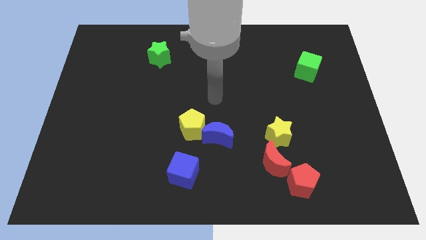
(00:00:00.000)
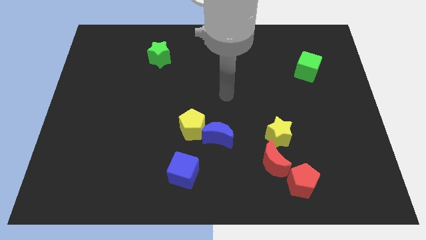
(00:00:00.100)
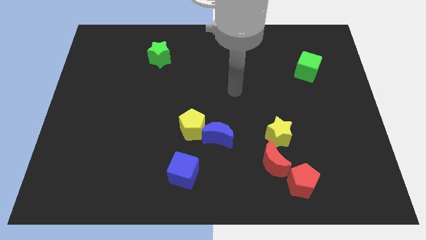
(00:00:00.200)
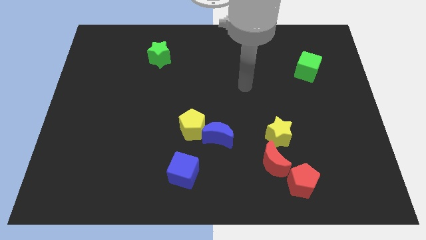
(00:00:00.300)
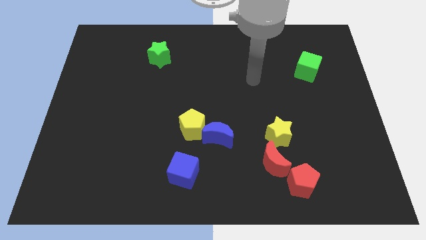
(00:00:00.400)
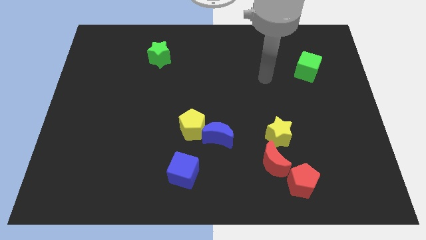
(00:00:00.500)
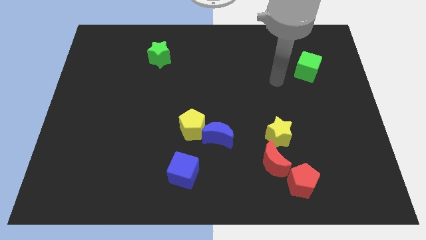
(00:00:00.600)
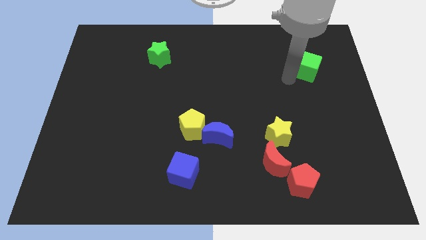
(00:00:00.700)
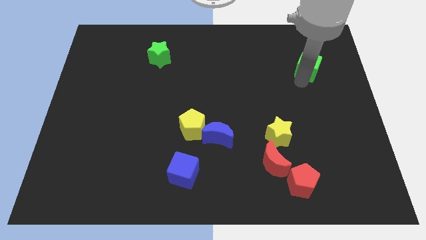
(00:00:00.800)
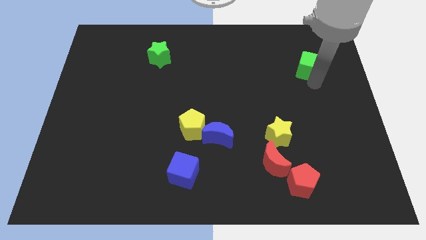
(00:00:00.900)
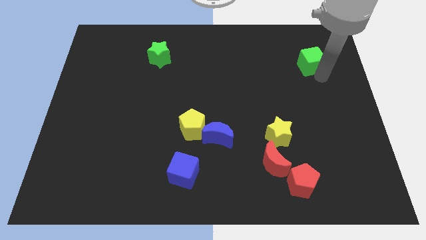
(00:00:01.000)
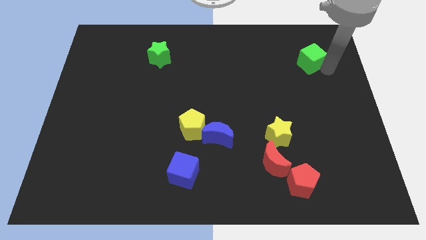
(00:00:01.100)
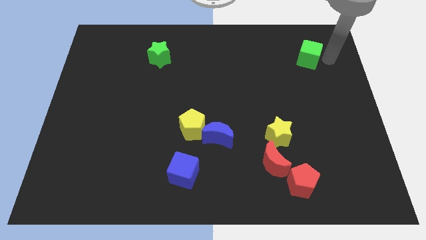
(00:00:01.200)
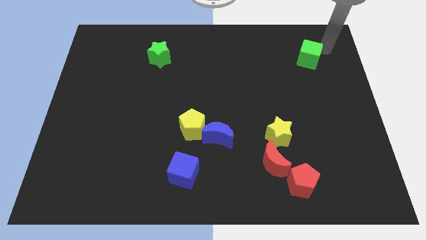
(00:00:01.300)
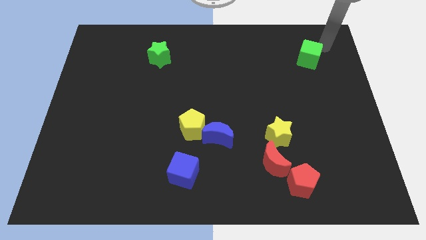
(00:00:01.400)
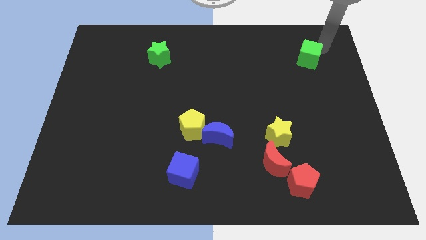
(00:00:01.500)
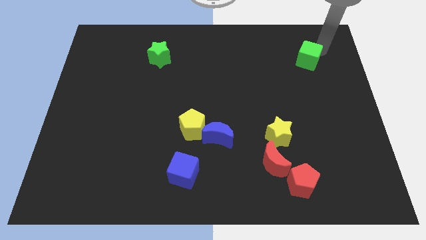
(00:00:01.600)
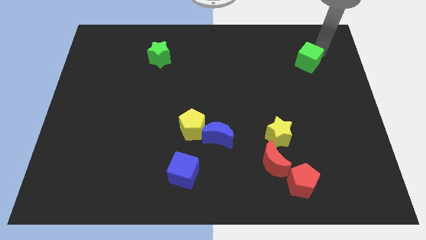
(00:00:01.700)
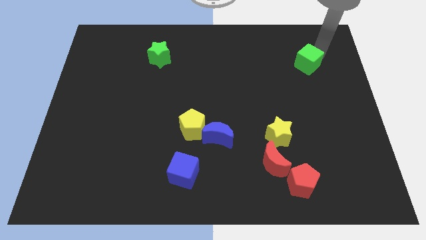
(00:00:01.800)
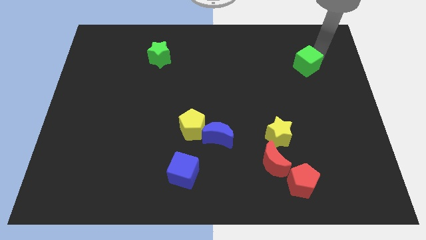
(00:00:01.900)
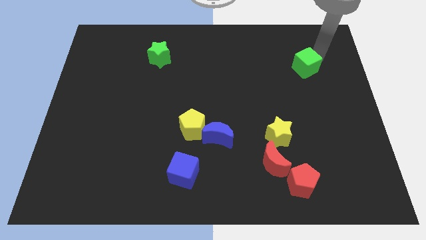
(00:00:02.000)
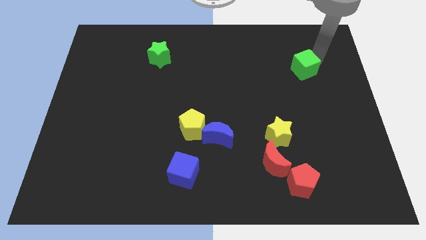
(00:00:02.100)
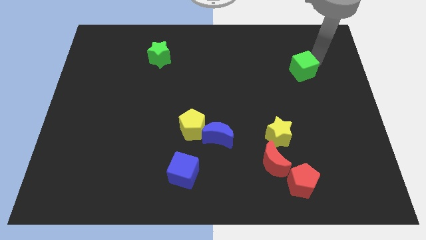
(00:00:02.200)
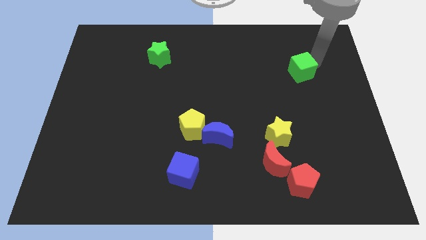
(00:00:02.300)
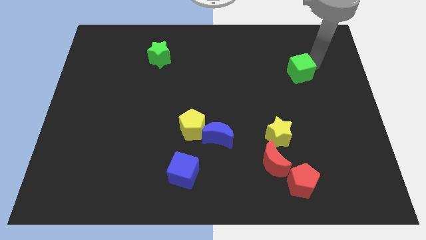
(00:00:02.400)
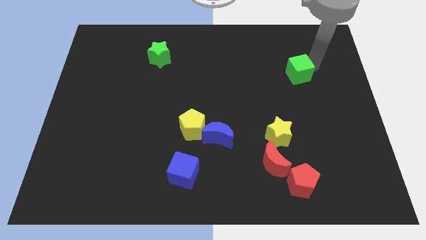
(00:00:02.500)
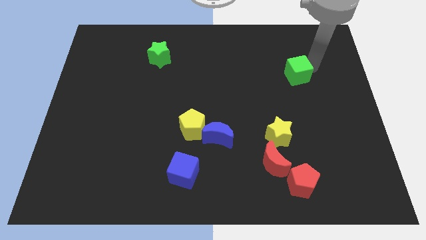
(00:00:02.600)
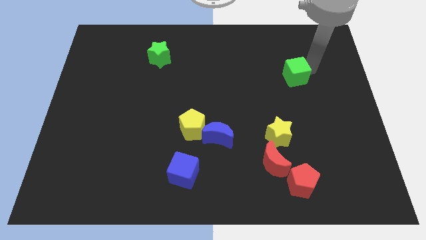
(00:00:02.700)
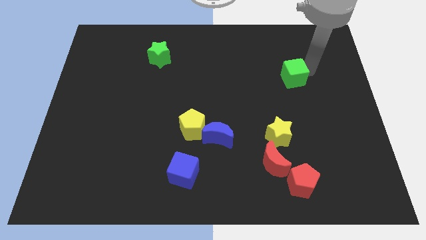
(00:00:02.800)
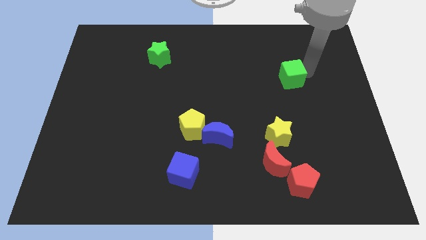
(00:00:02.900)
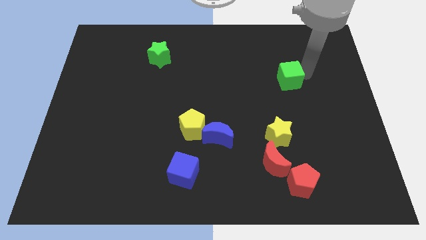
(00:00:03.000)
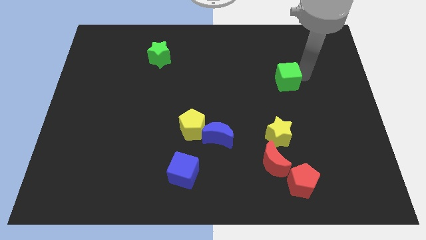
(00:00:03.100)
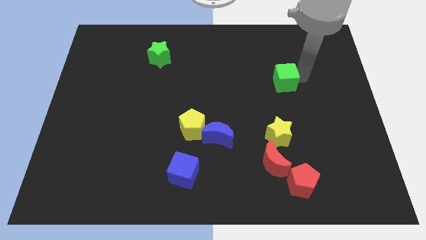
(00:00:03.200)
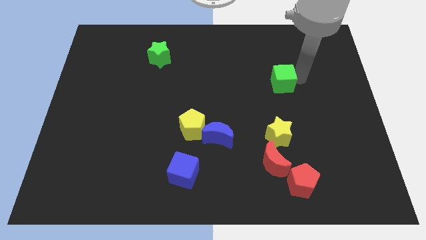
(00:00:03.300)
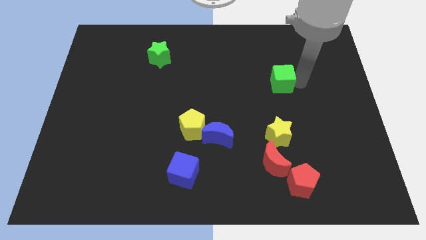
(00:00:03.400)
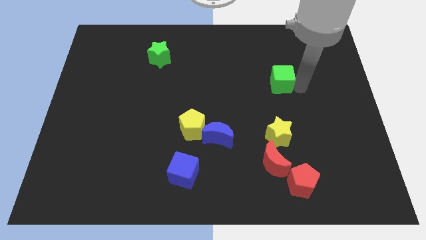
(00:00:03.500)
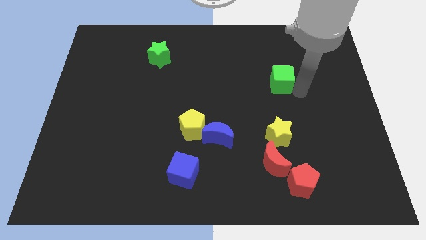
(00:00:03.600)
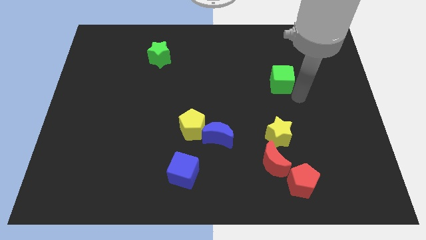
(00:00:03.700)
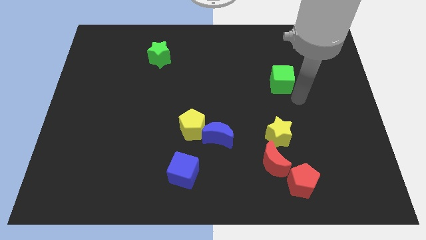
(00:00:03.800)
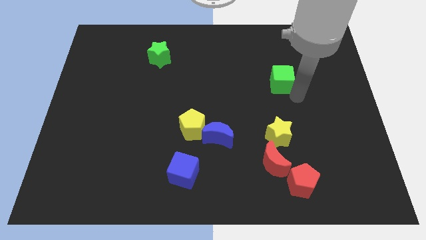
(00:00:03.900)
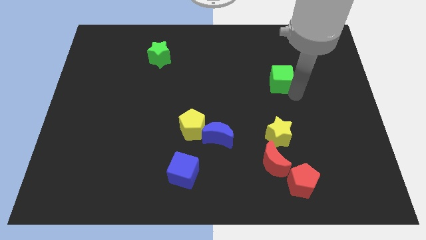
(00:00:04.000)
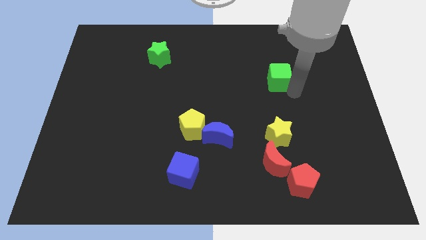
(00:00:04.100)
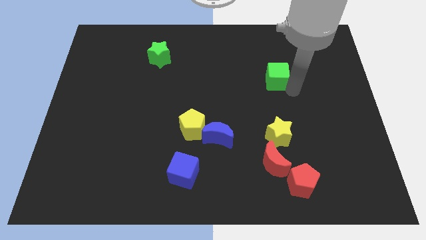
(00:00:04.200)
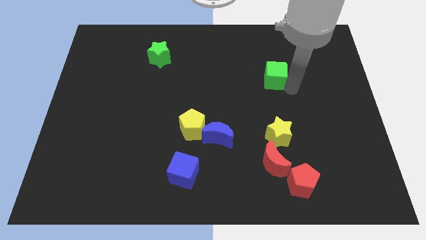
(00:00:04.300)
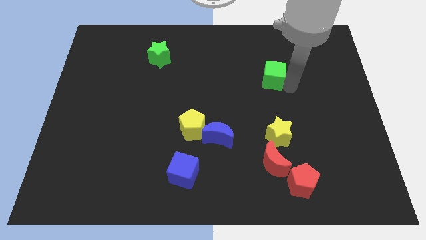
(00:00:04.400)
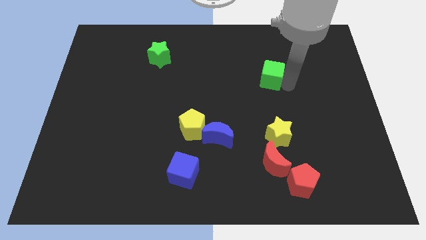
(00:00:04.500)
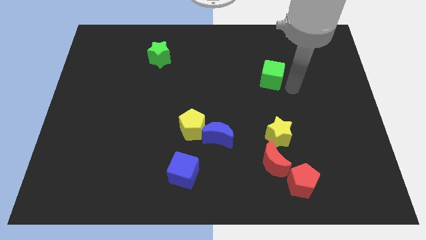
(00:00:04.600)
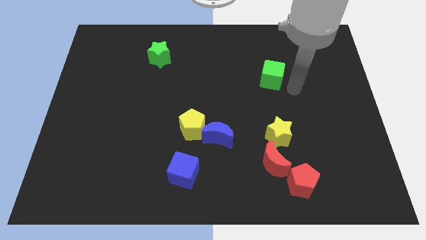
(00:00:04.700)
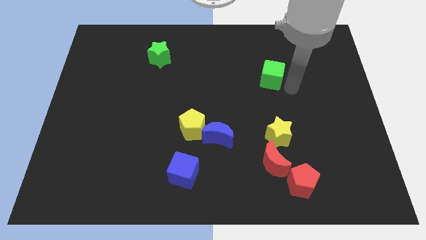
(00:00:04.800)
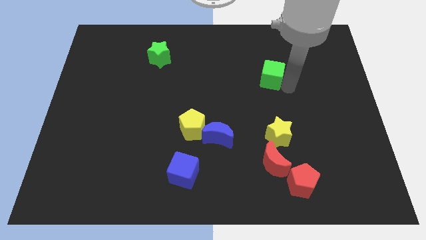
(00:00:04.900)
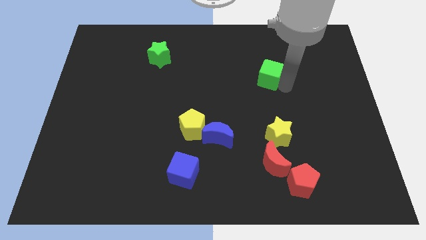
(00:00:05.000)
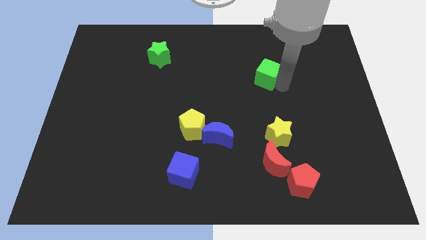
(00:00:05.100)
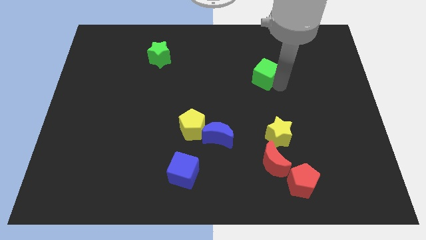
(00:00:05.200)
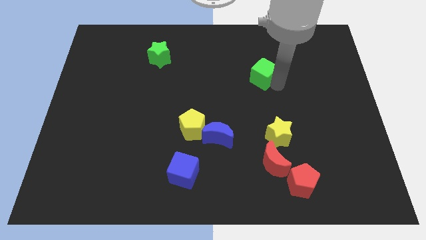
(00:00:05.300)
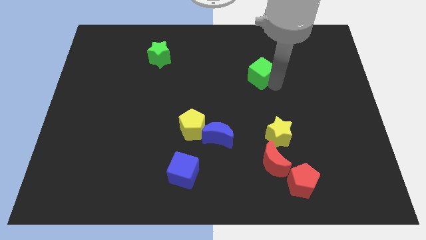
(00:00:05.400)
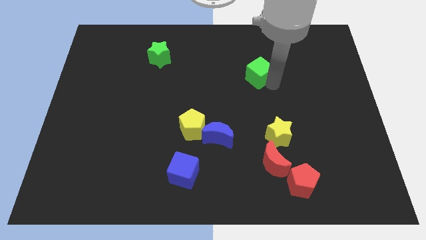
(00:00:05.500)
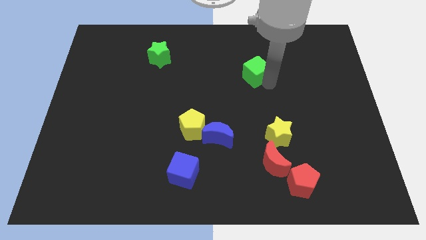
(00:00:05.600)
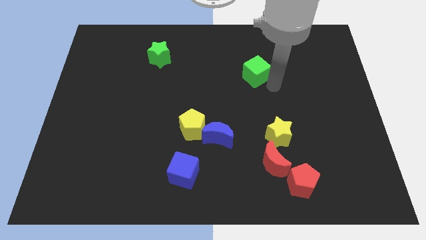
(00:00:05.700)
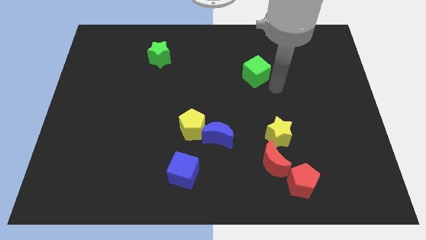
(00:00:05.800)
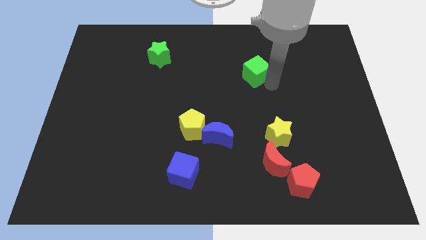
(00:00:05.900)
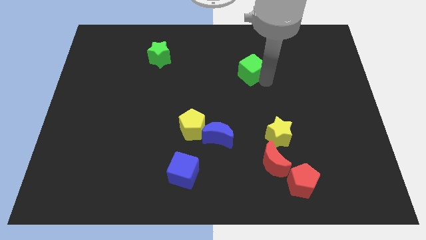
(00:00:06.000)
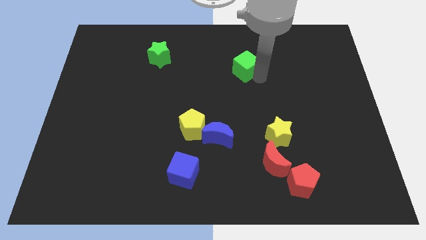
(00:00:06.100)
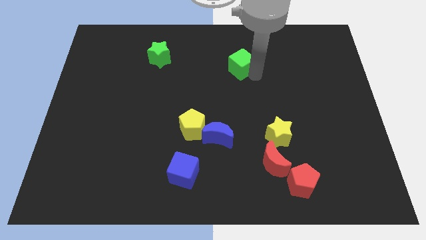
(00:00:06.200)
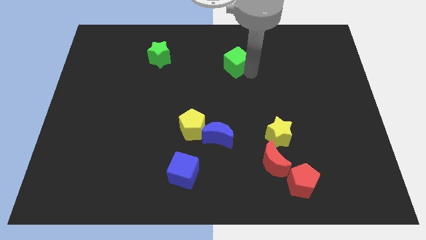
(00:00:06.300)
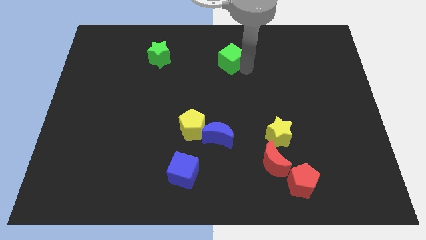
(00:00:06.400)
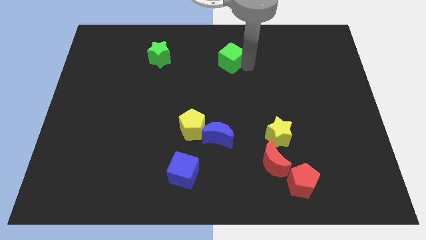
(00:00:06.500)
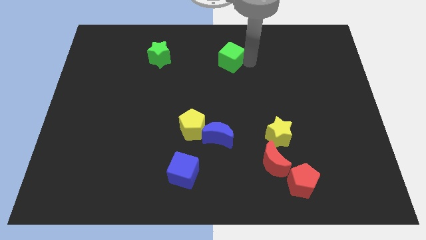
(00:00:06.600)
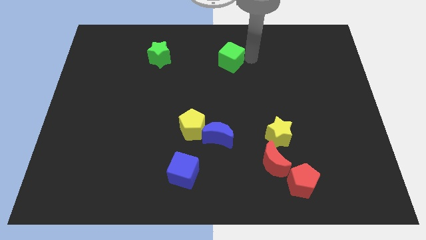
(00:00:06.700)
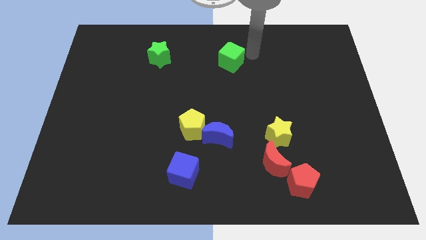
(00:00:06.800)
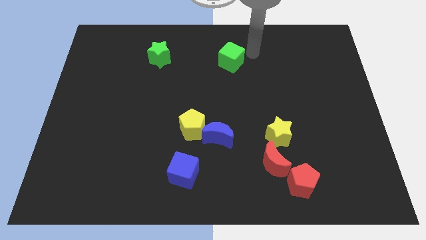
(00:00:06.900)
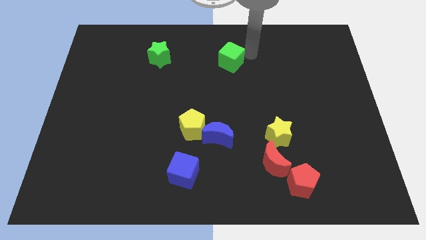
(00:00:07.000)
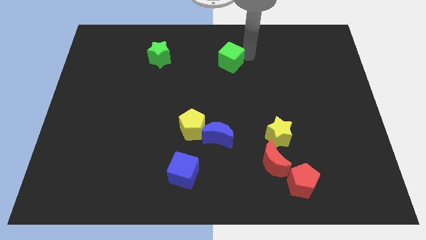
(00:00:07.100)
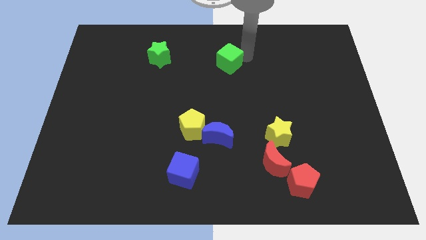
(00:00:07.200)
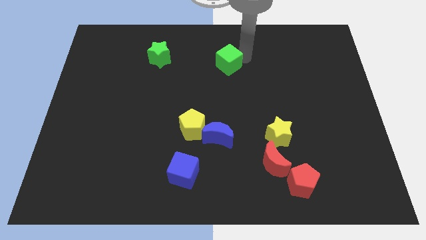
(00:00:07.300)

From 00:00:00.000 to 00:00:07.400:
slide the green cube left

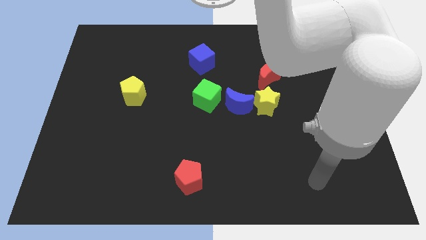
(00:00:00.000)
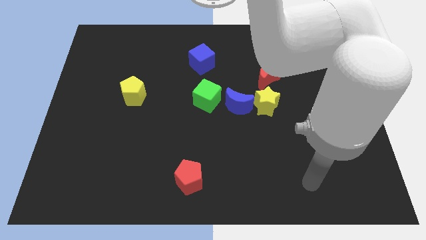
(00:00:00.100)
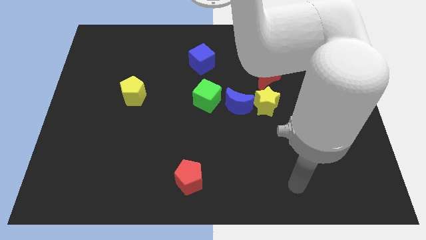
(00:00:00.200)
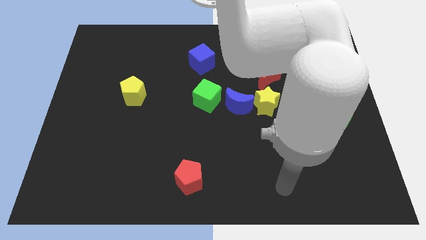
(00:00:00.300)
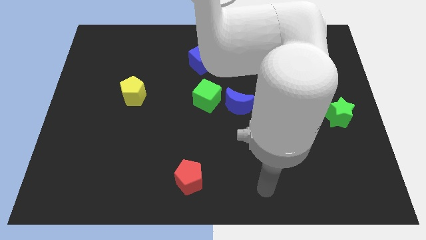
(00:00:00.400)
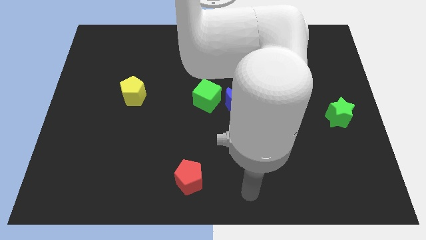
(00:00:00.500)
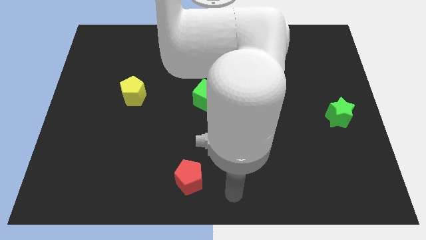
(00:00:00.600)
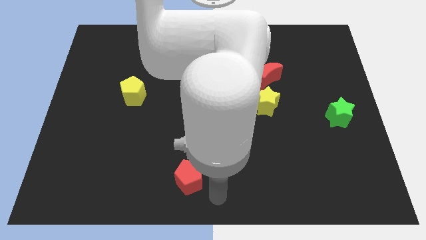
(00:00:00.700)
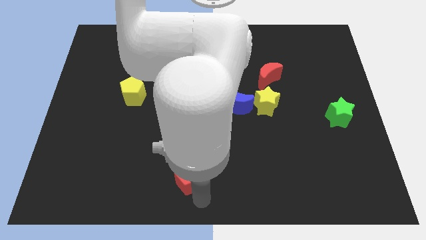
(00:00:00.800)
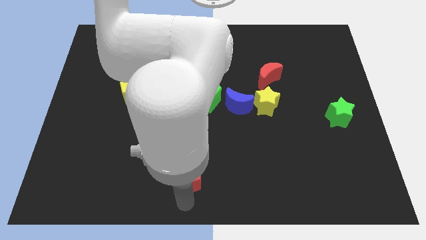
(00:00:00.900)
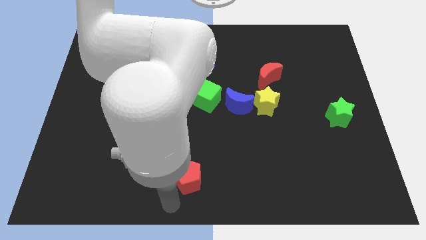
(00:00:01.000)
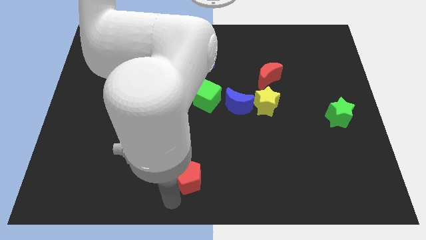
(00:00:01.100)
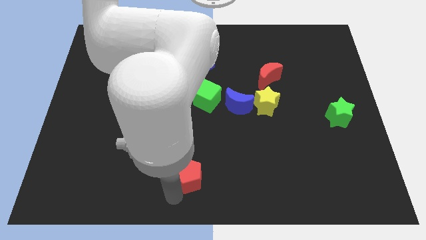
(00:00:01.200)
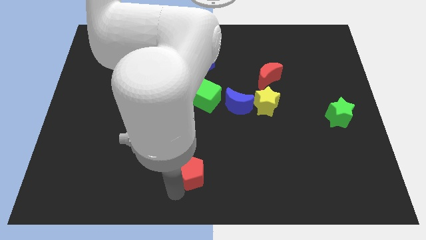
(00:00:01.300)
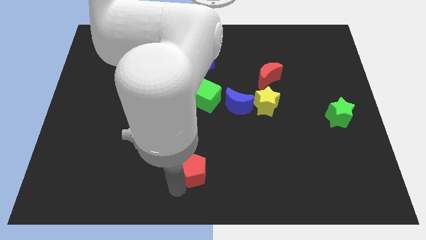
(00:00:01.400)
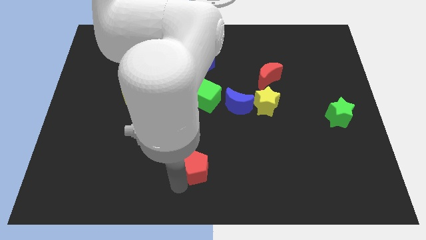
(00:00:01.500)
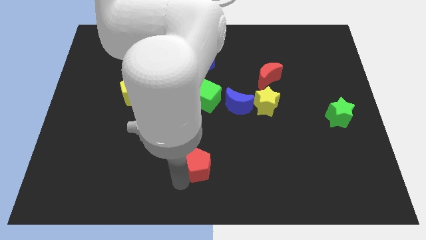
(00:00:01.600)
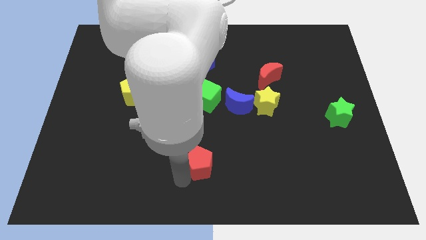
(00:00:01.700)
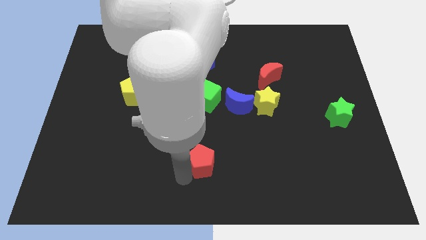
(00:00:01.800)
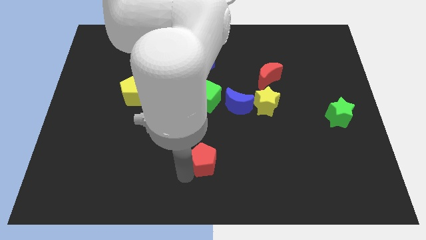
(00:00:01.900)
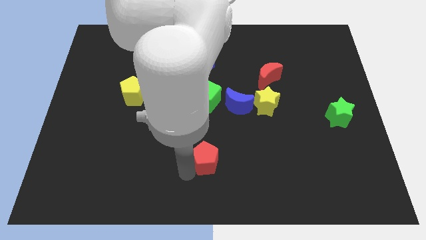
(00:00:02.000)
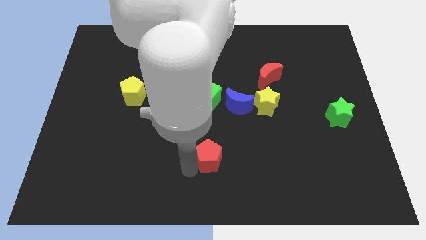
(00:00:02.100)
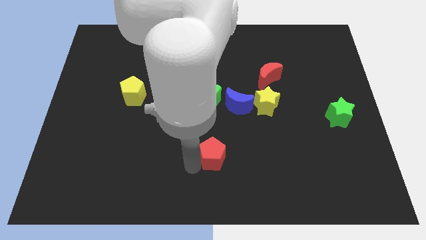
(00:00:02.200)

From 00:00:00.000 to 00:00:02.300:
move the red pentagon somewhat diagonally upwards and to the right
